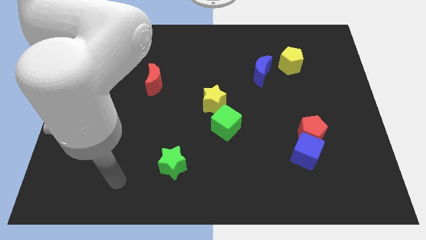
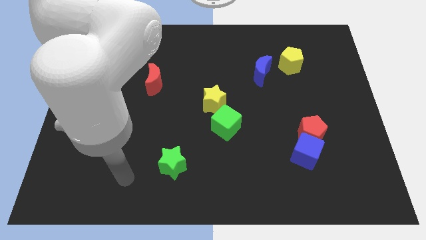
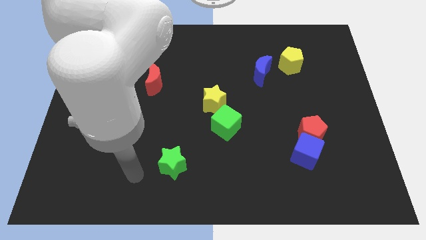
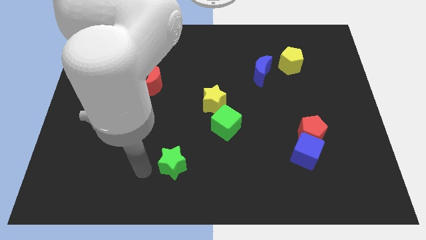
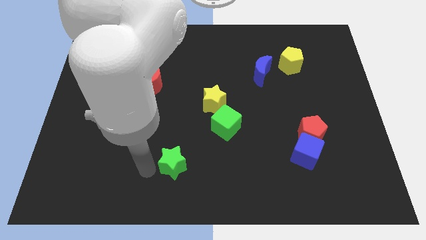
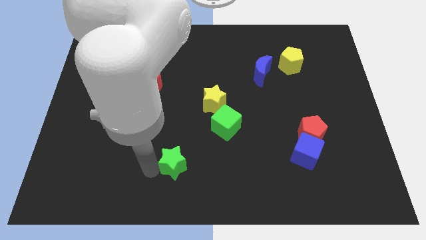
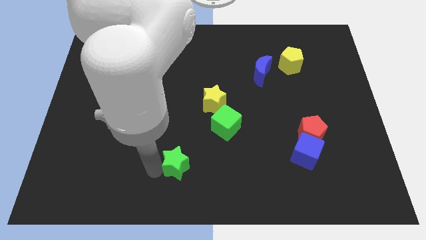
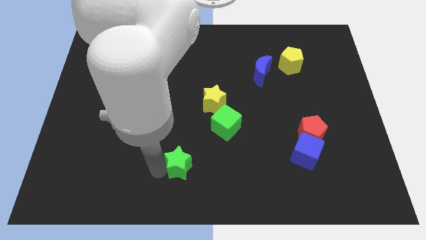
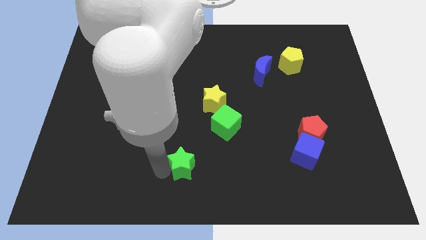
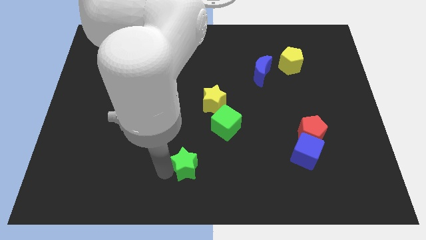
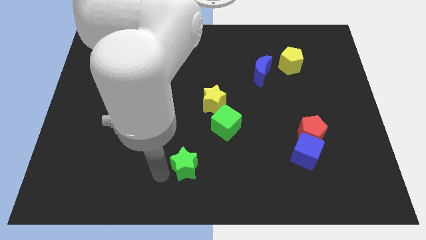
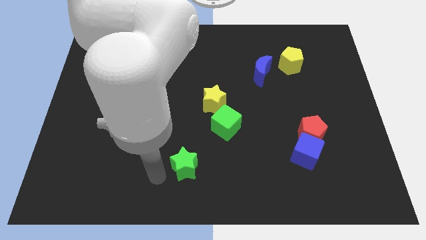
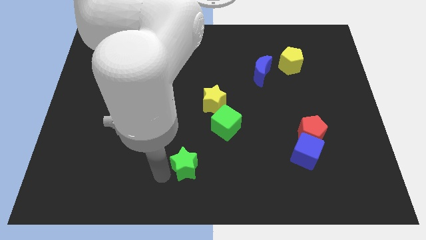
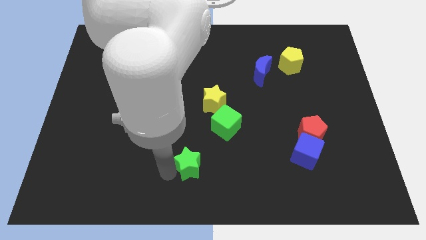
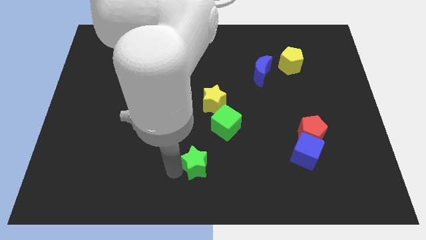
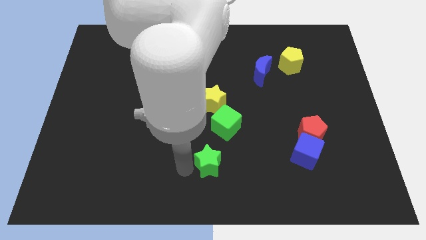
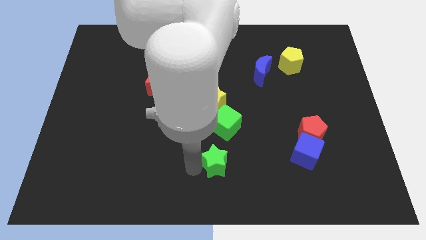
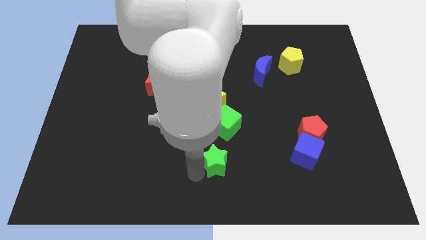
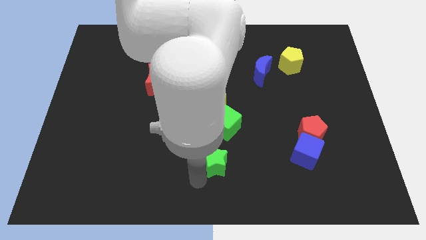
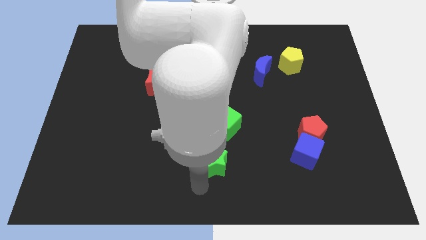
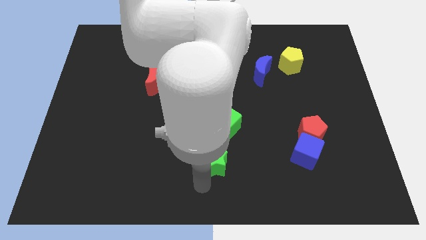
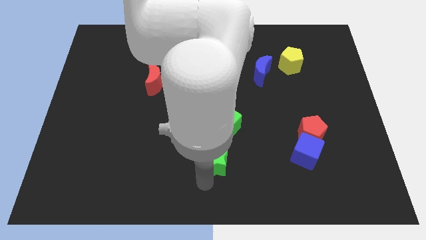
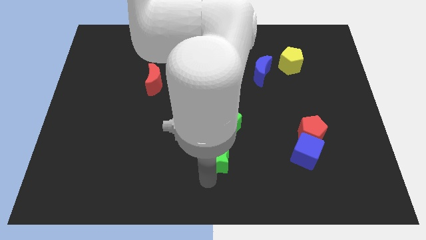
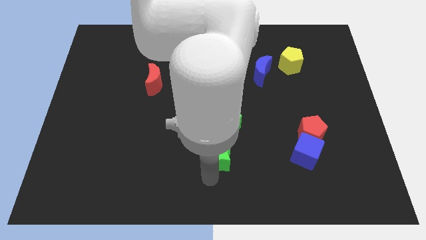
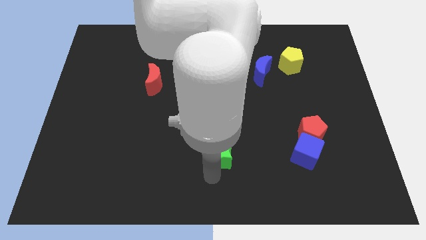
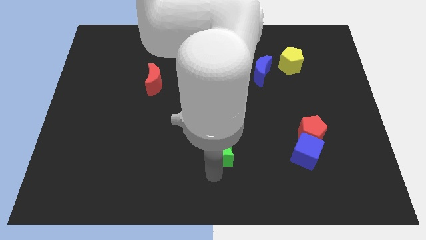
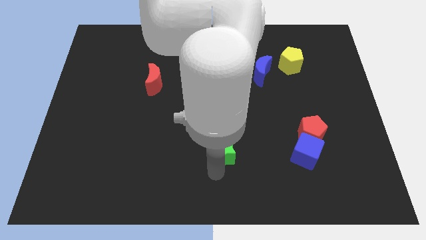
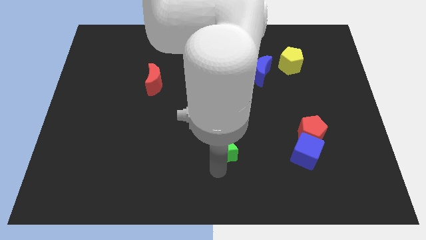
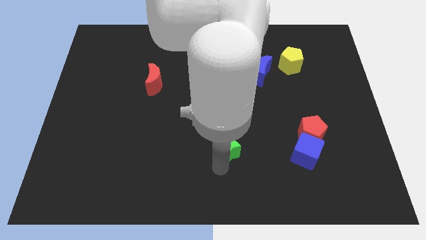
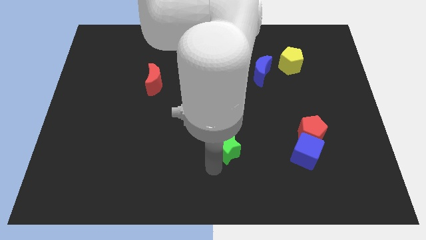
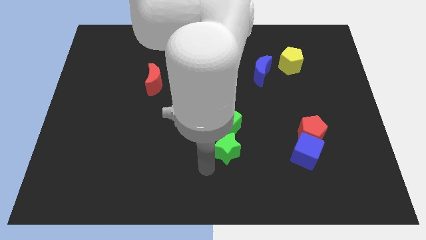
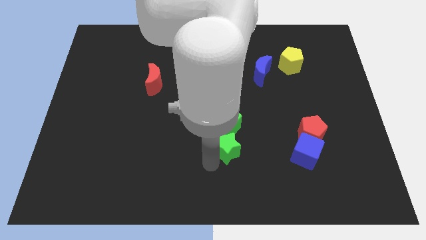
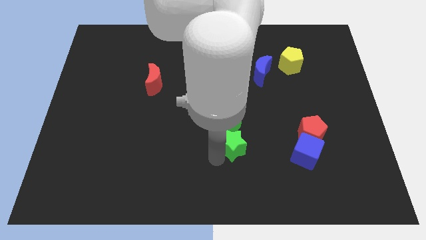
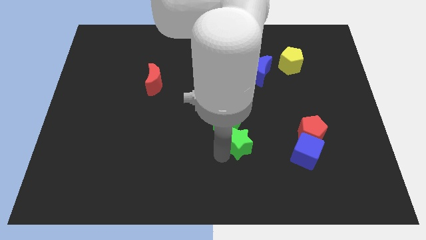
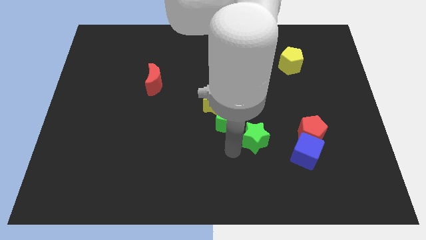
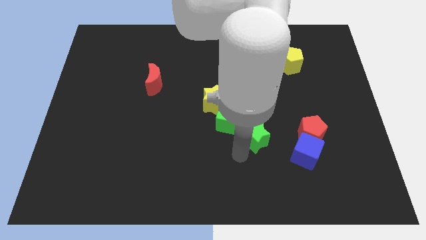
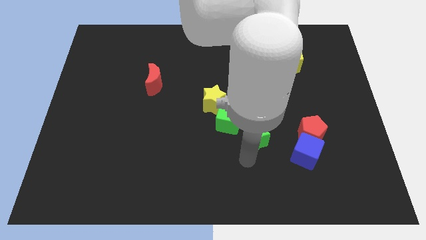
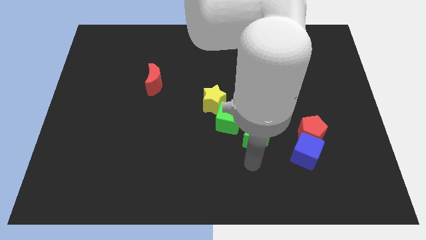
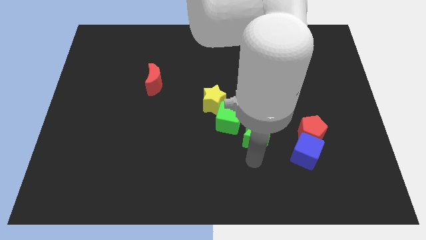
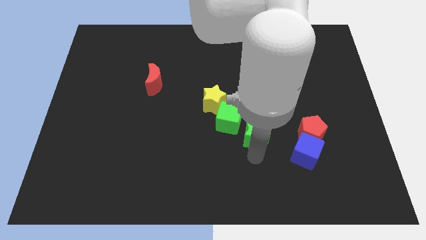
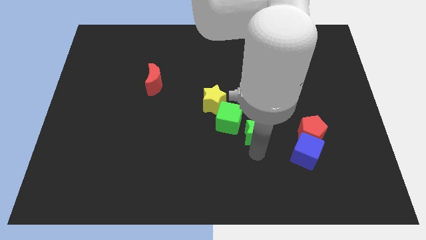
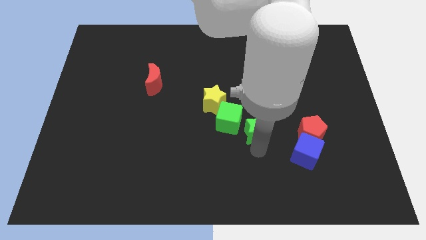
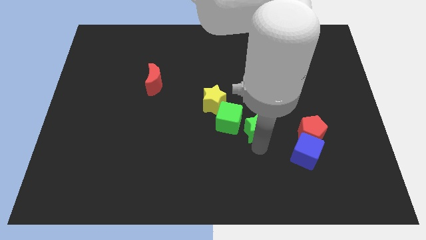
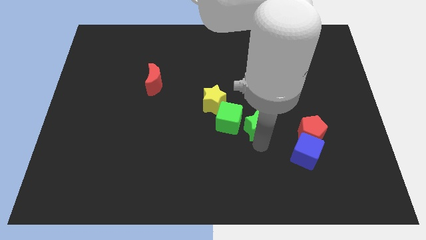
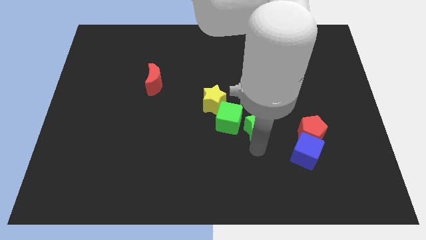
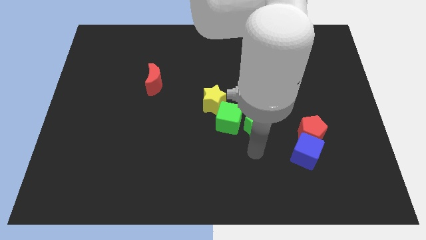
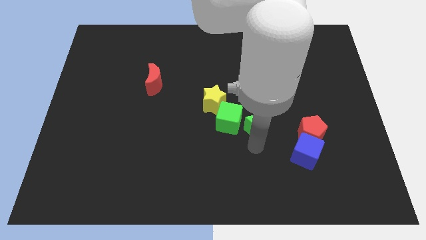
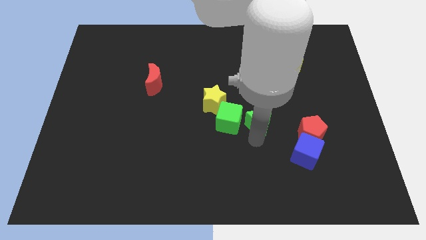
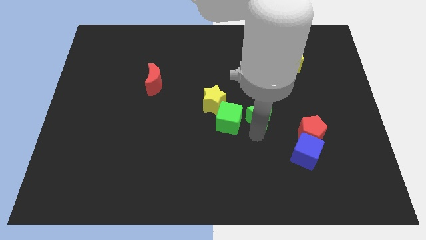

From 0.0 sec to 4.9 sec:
push the green star upwards and then to the right

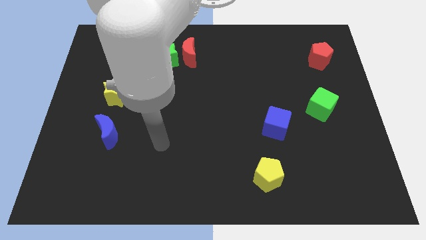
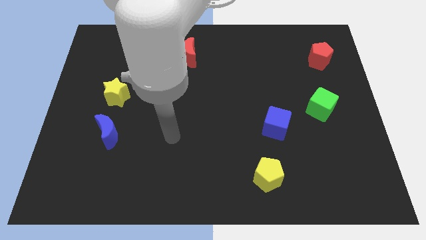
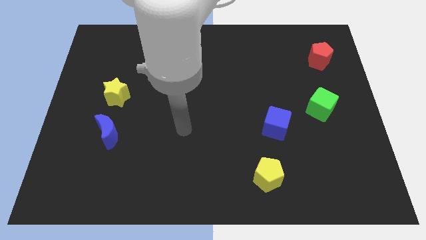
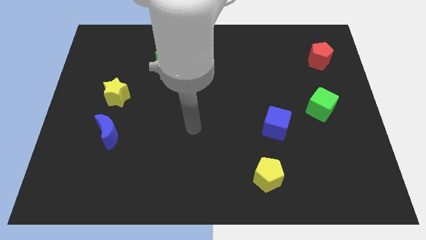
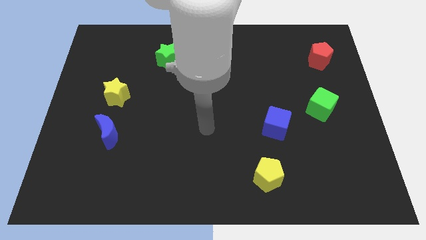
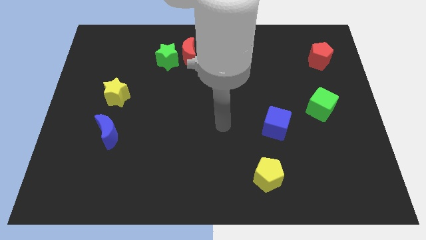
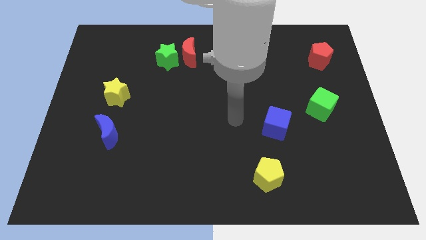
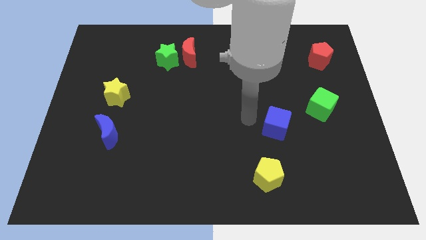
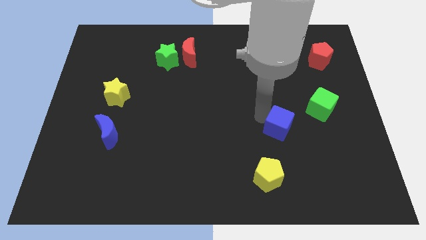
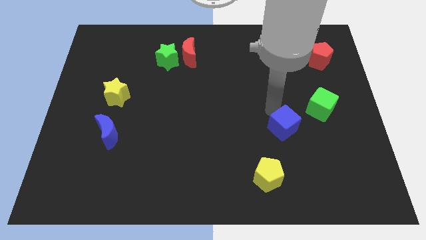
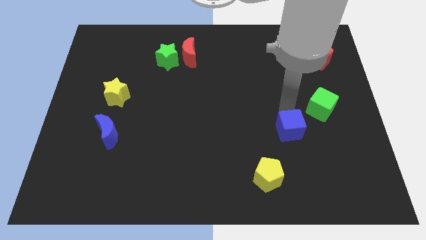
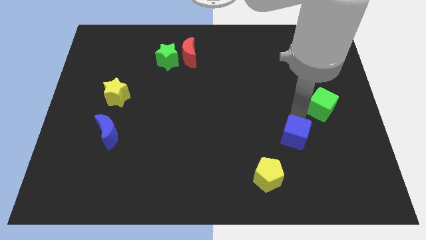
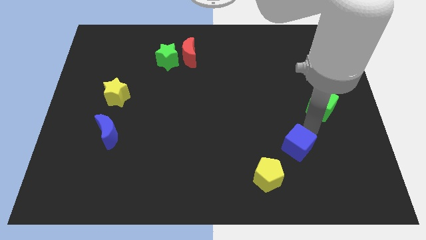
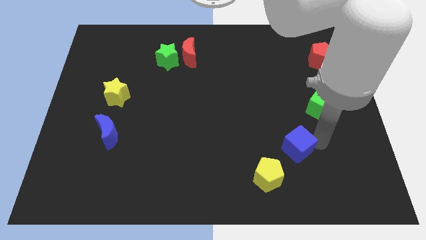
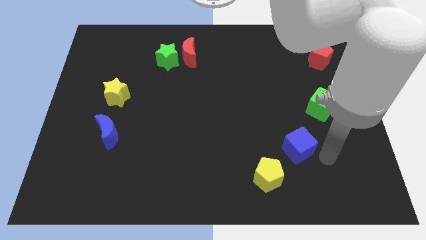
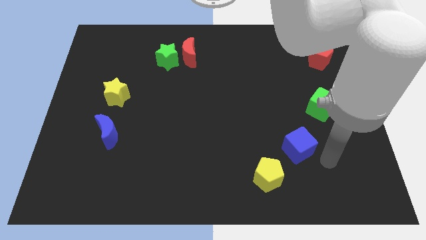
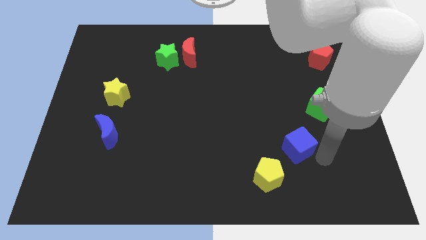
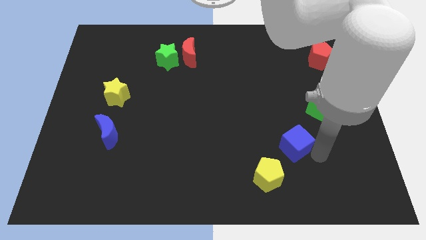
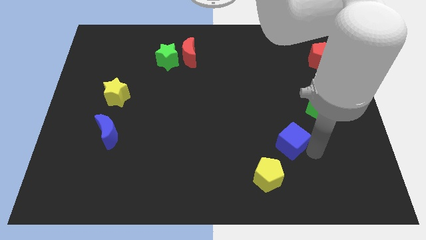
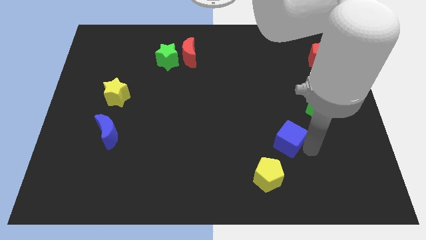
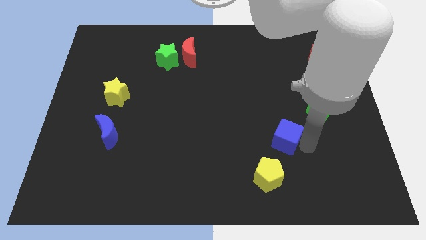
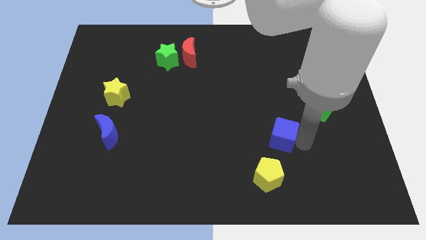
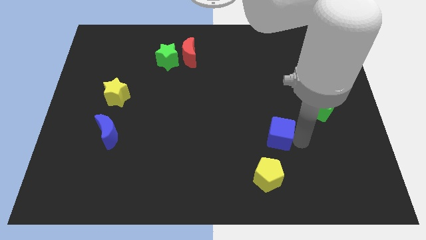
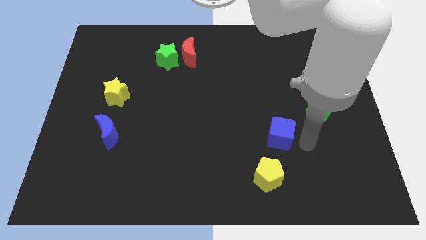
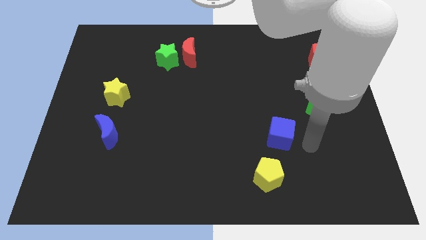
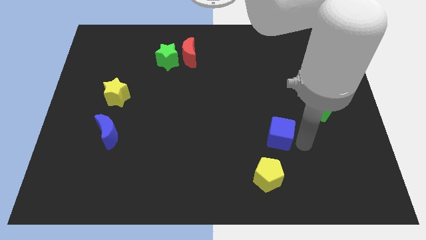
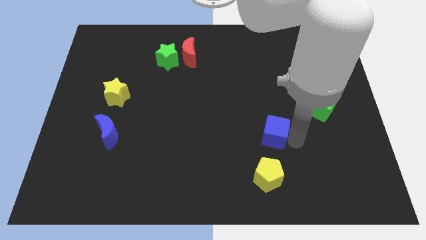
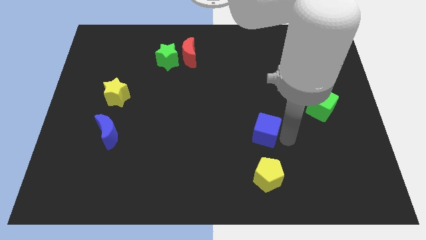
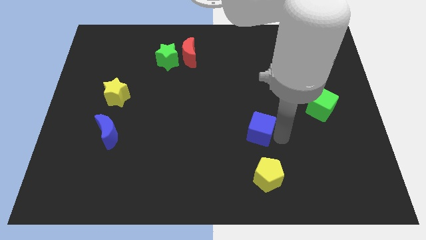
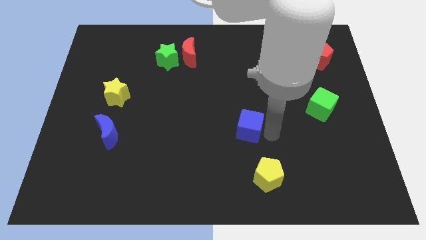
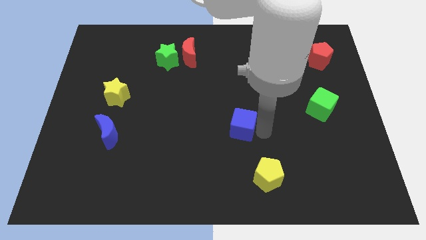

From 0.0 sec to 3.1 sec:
push the blue cube to the left a little
